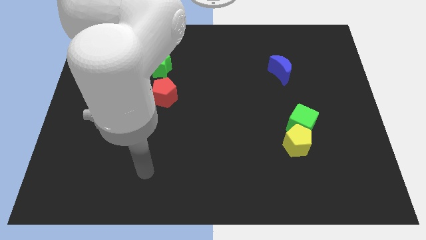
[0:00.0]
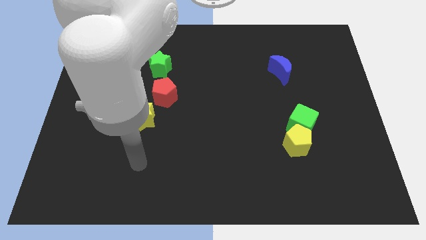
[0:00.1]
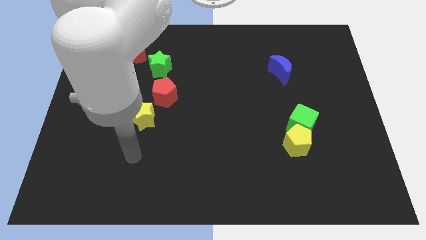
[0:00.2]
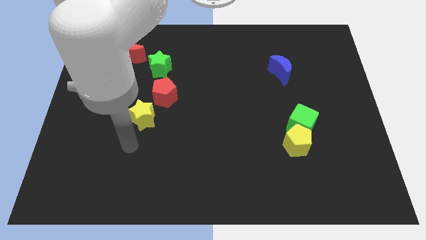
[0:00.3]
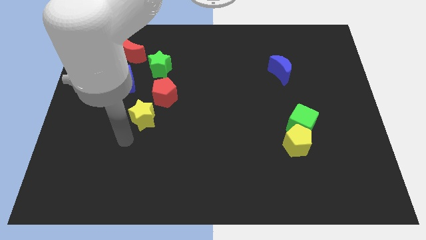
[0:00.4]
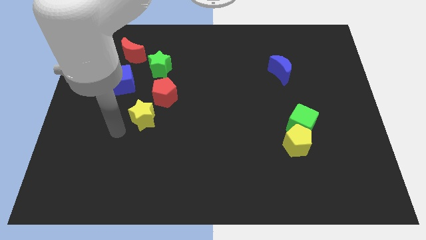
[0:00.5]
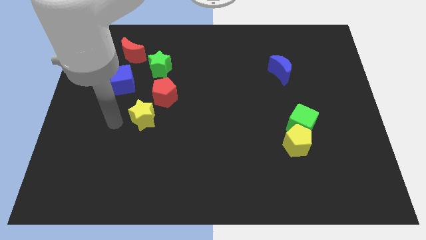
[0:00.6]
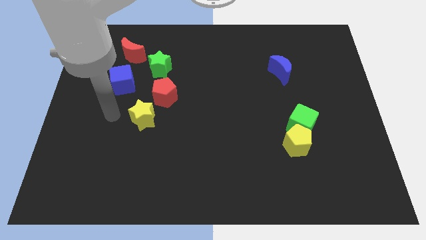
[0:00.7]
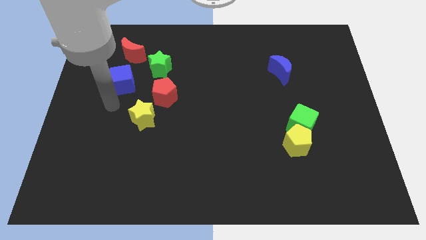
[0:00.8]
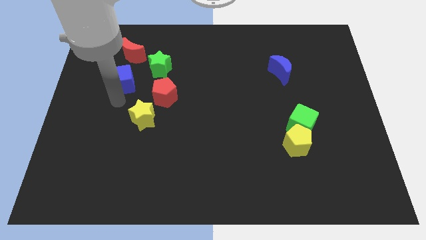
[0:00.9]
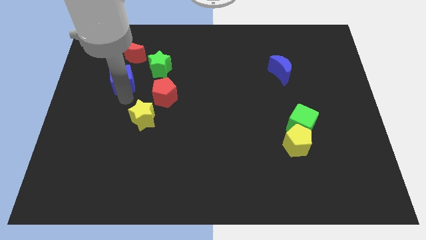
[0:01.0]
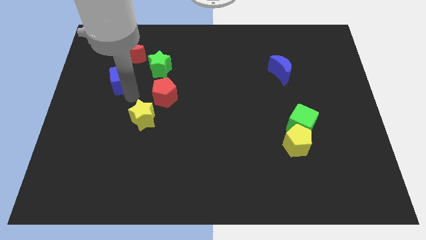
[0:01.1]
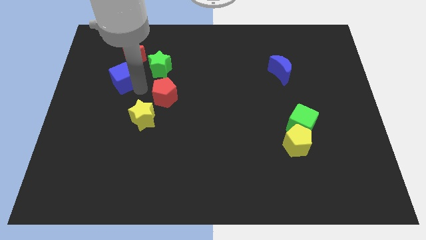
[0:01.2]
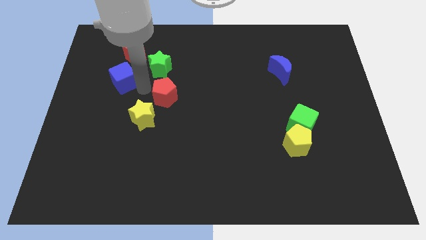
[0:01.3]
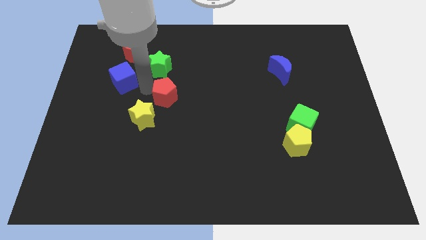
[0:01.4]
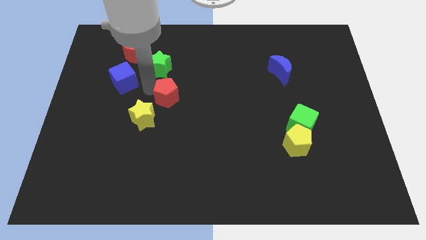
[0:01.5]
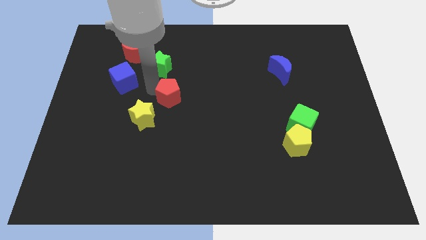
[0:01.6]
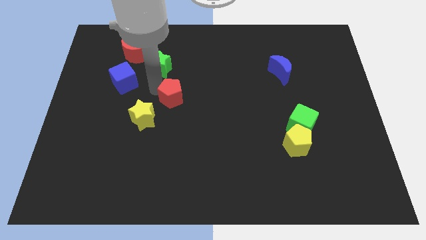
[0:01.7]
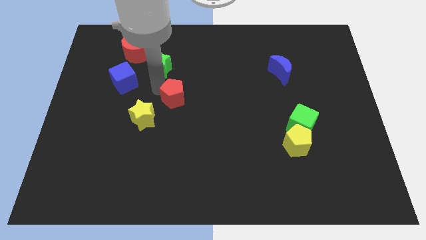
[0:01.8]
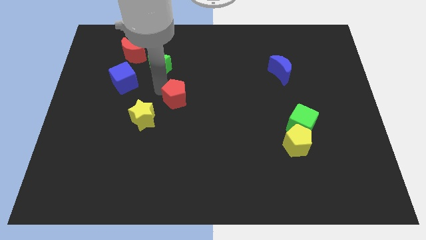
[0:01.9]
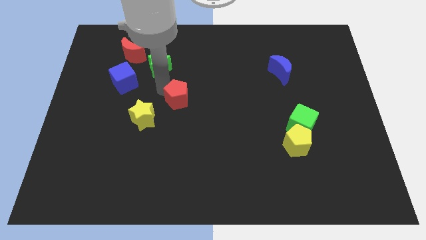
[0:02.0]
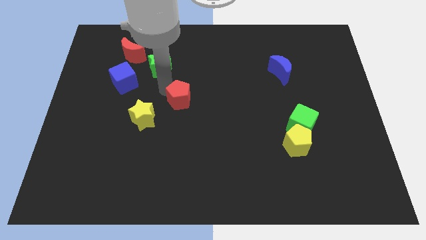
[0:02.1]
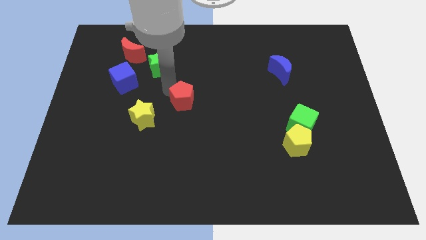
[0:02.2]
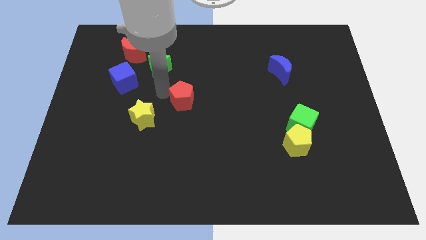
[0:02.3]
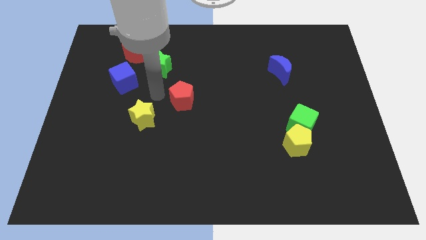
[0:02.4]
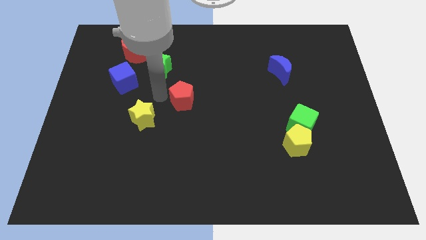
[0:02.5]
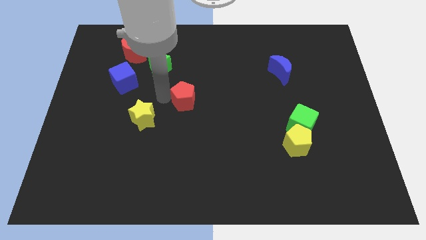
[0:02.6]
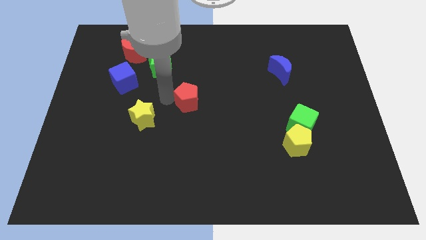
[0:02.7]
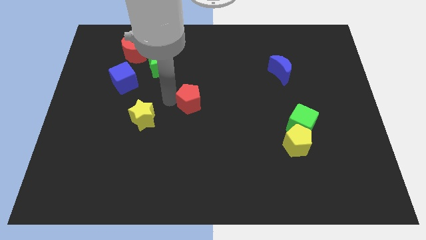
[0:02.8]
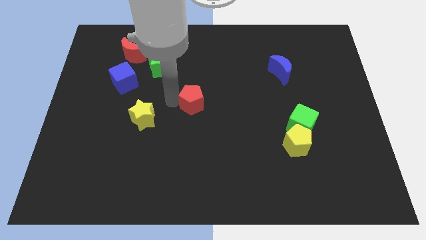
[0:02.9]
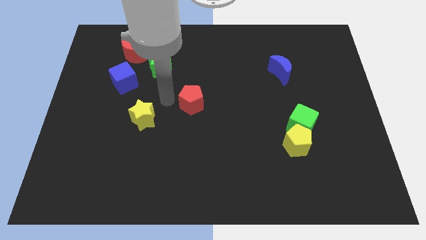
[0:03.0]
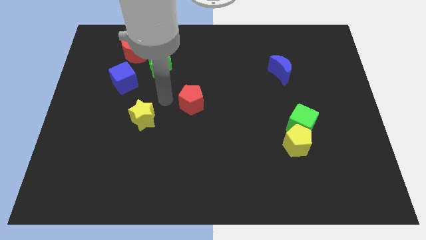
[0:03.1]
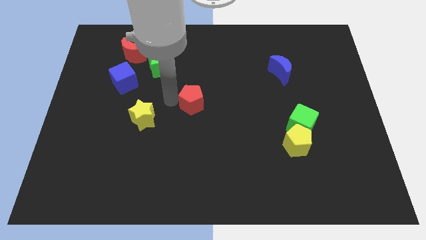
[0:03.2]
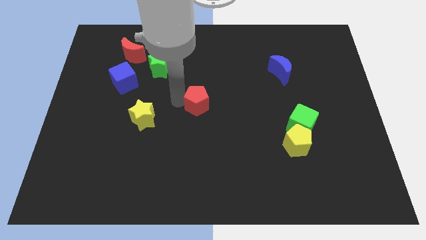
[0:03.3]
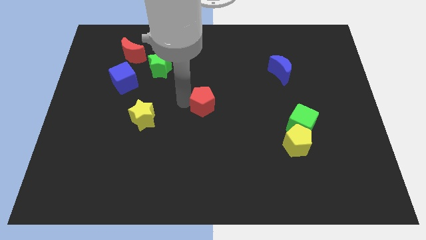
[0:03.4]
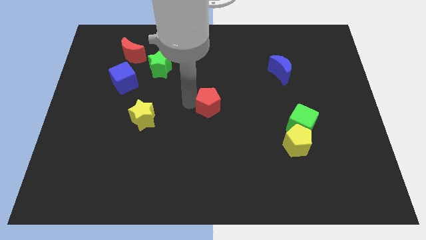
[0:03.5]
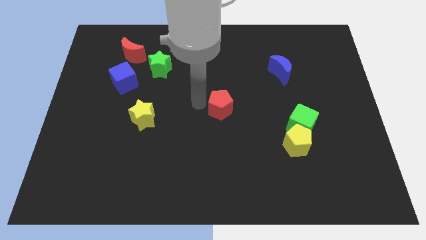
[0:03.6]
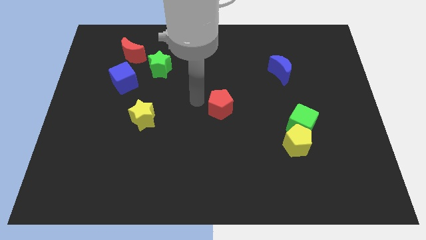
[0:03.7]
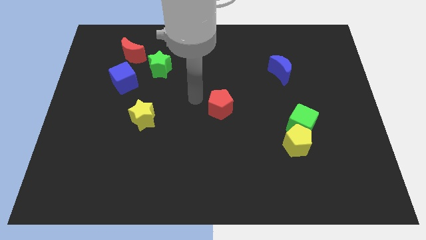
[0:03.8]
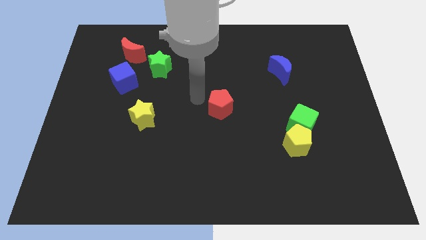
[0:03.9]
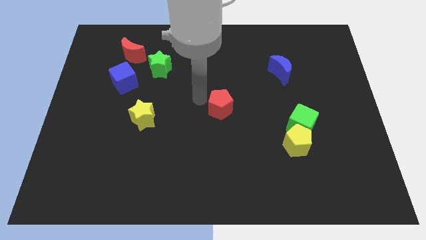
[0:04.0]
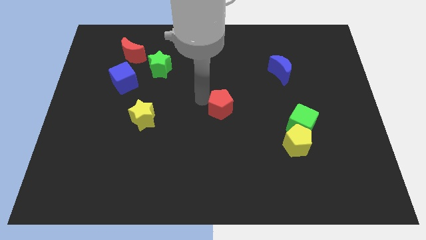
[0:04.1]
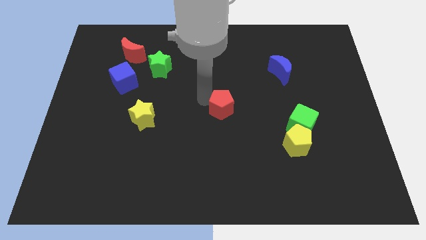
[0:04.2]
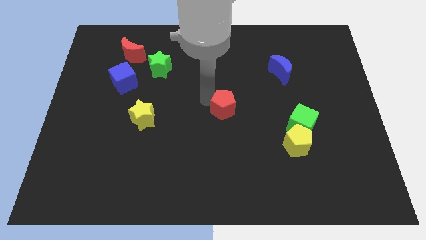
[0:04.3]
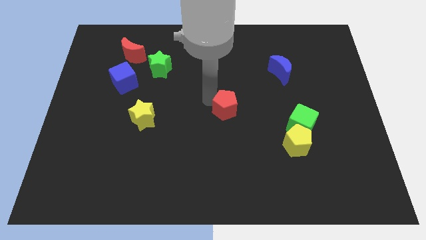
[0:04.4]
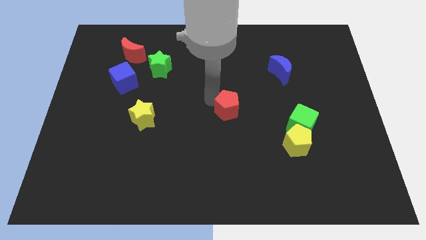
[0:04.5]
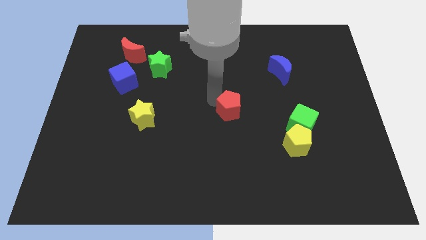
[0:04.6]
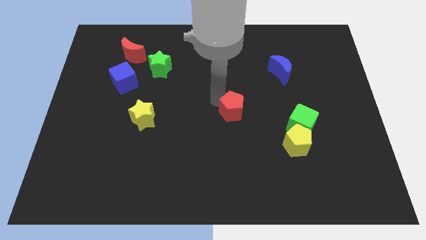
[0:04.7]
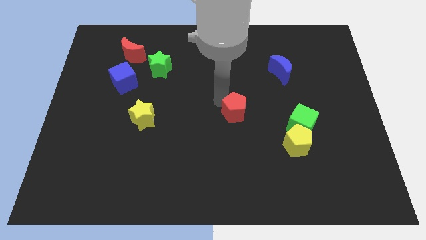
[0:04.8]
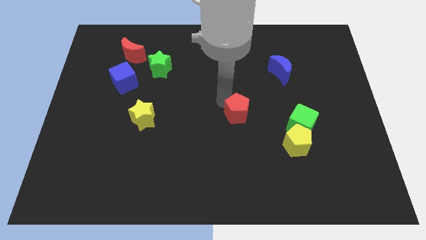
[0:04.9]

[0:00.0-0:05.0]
push the red pentagon to the left side of the green cube

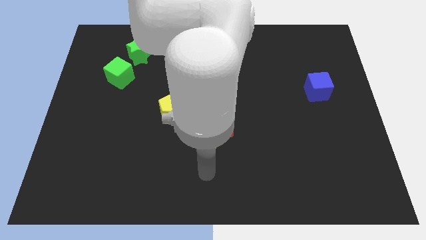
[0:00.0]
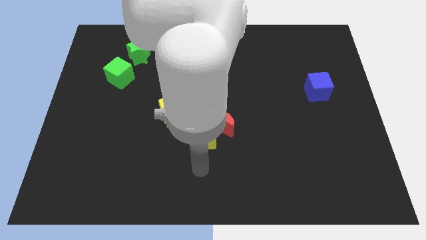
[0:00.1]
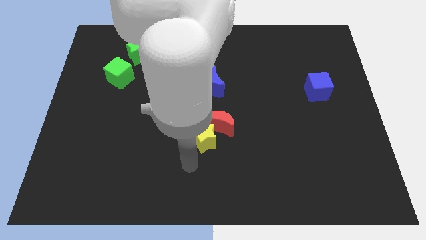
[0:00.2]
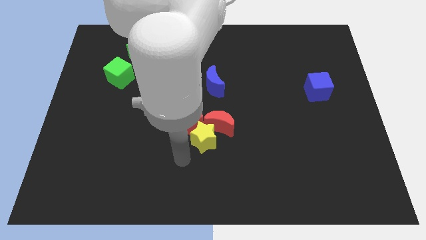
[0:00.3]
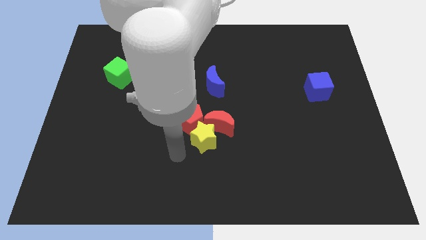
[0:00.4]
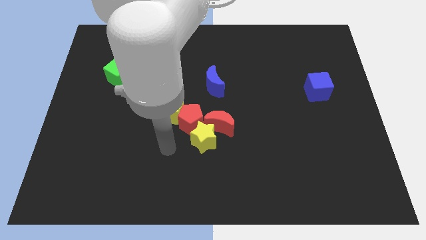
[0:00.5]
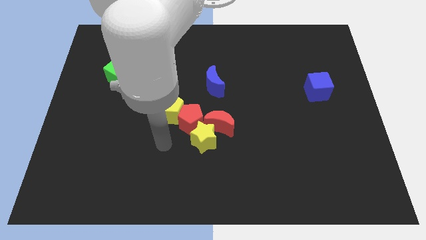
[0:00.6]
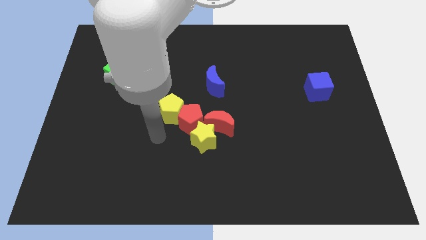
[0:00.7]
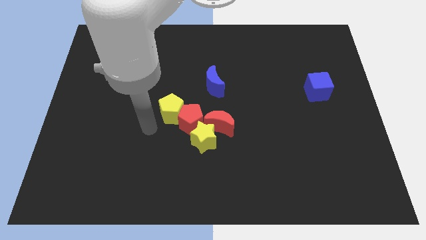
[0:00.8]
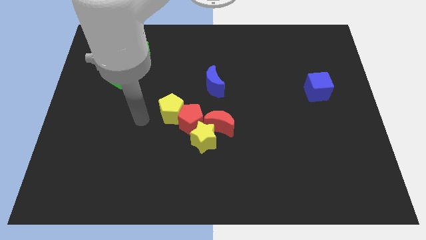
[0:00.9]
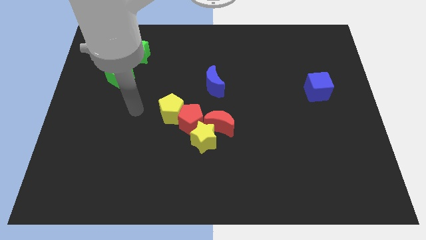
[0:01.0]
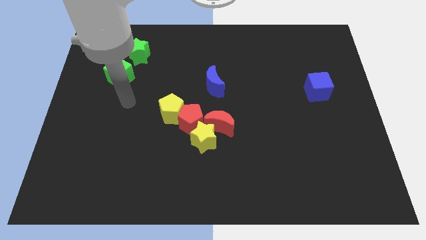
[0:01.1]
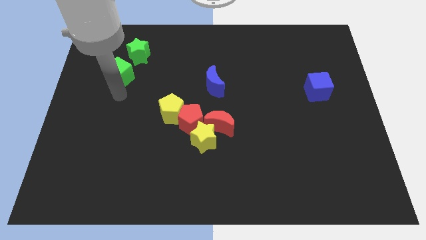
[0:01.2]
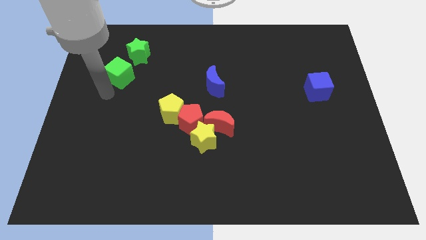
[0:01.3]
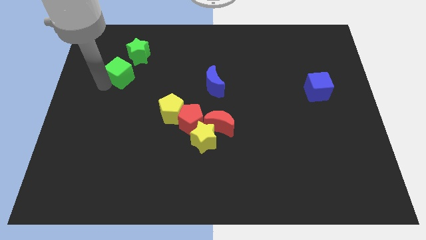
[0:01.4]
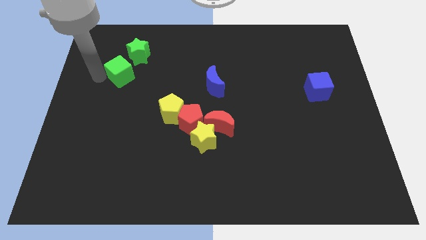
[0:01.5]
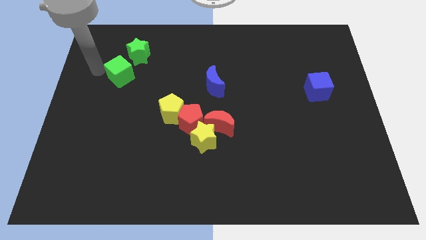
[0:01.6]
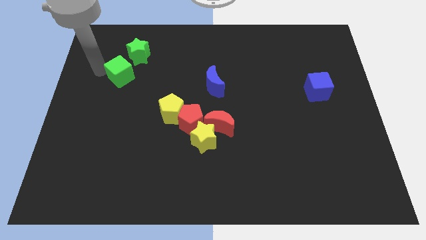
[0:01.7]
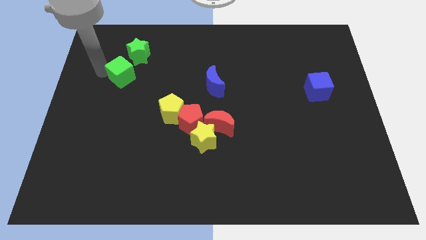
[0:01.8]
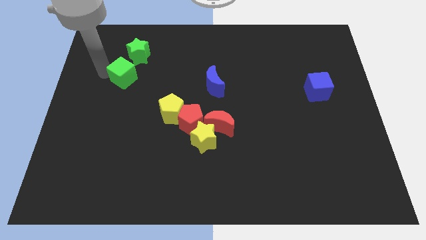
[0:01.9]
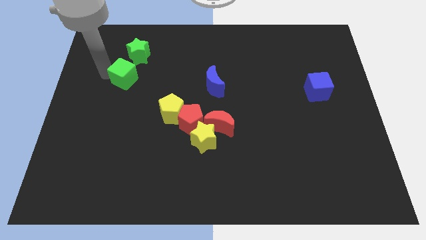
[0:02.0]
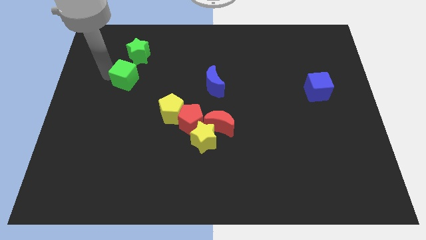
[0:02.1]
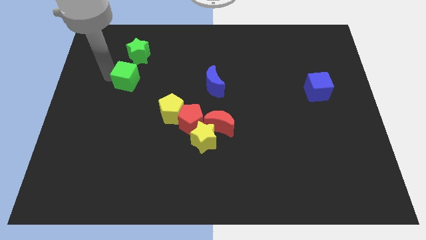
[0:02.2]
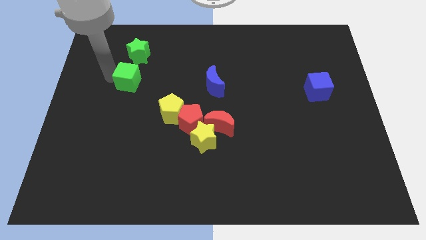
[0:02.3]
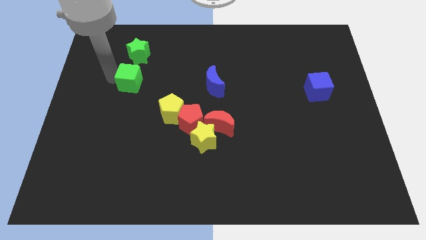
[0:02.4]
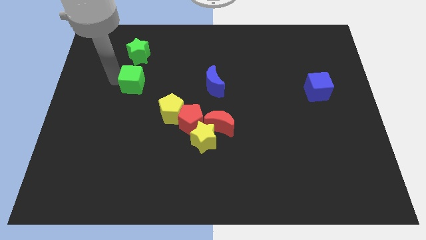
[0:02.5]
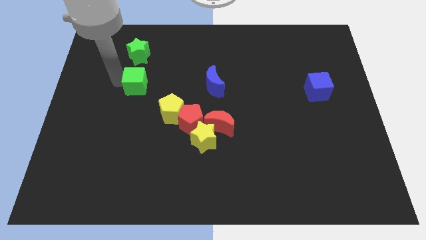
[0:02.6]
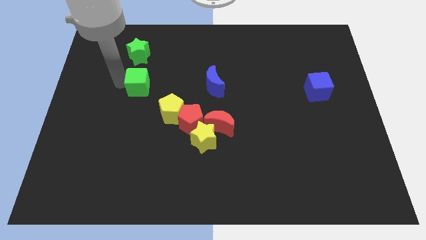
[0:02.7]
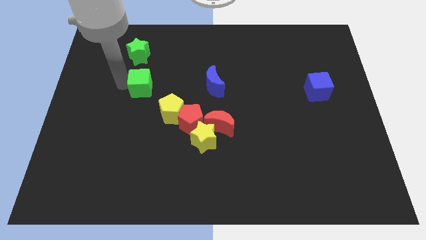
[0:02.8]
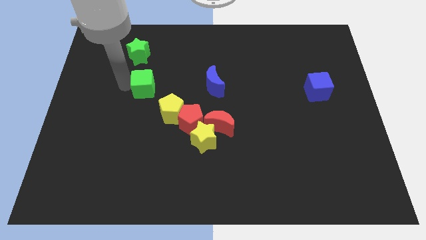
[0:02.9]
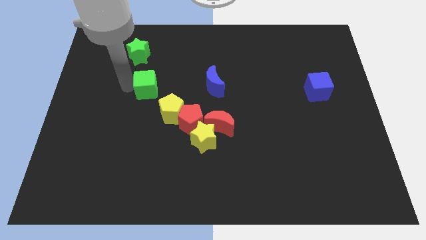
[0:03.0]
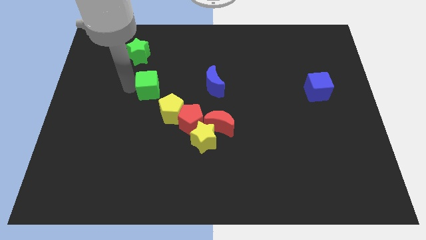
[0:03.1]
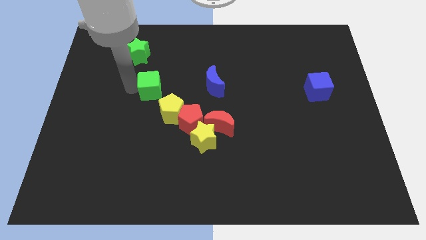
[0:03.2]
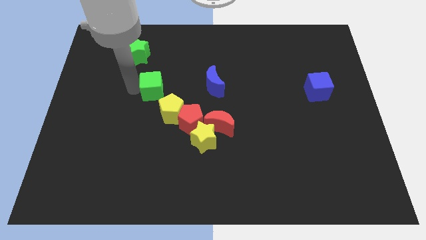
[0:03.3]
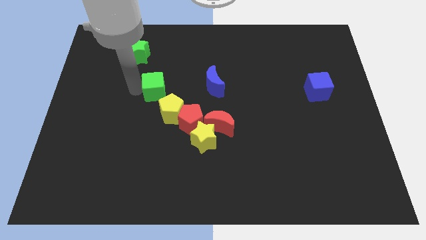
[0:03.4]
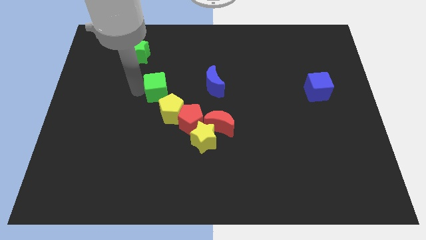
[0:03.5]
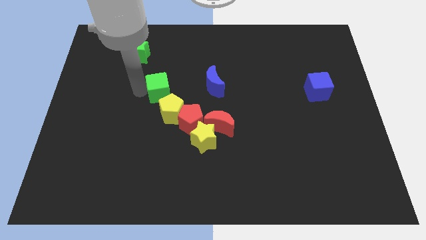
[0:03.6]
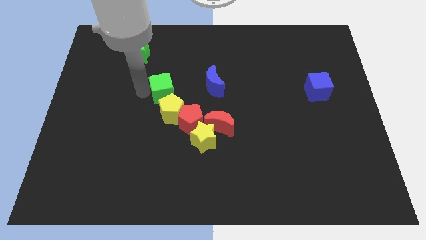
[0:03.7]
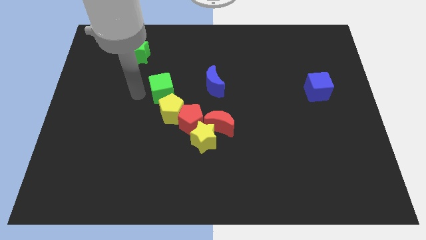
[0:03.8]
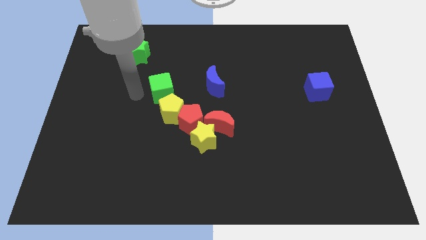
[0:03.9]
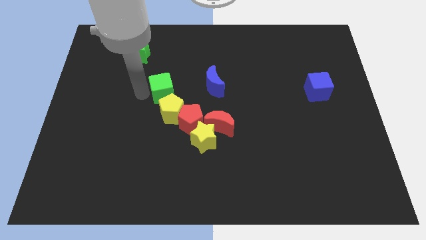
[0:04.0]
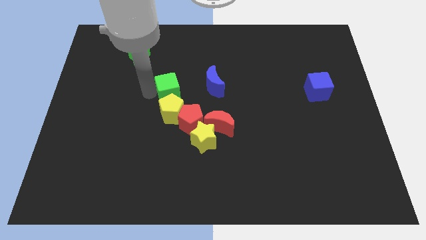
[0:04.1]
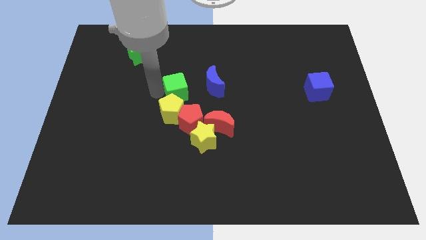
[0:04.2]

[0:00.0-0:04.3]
put the green cube to the top of the red pentagon
